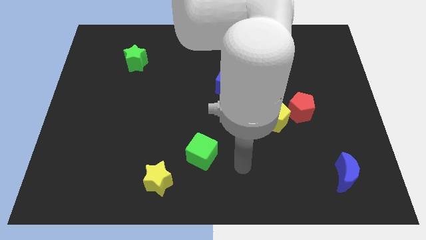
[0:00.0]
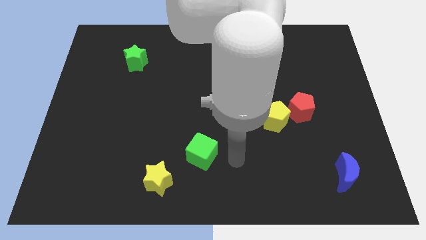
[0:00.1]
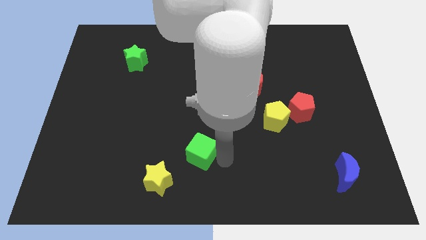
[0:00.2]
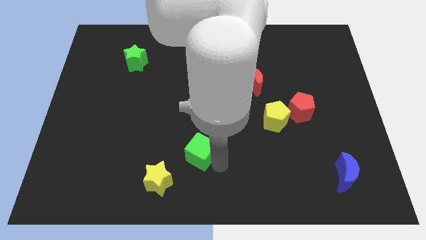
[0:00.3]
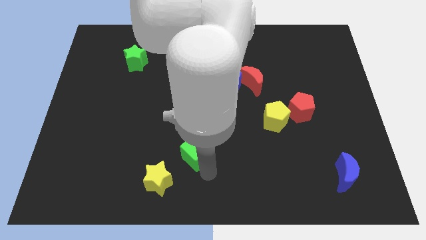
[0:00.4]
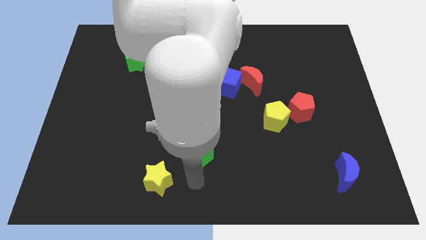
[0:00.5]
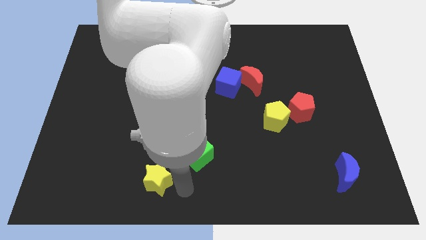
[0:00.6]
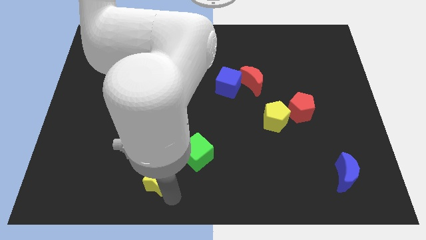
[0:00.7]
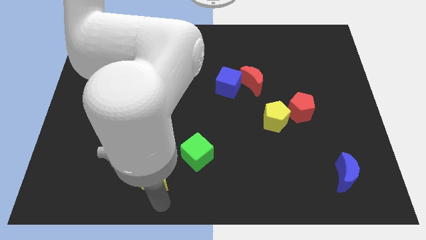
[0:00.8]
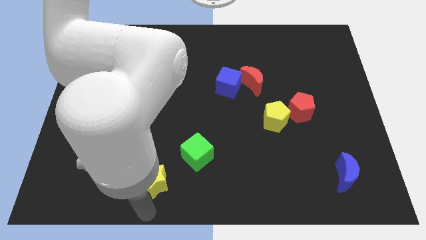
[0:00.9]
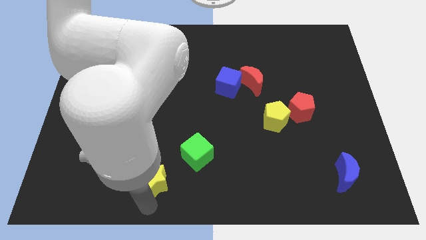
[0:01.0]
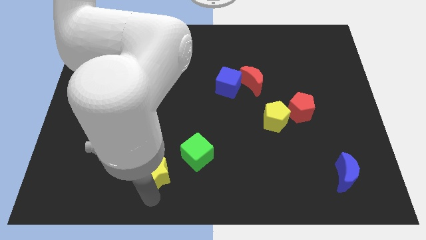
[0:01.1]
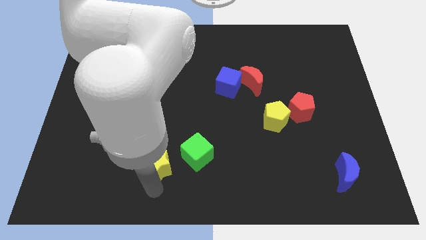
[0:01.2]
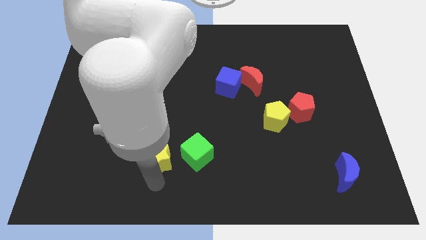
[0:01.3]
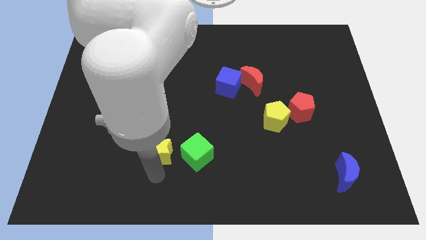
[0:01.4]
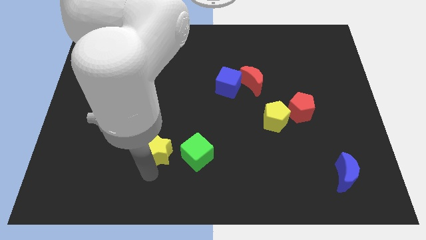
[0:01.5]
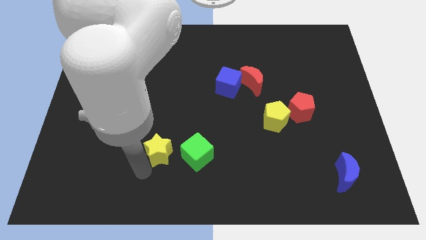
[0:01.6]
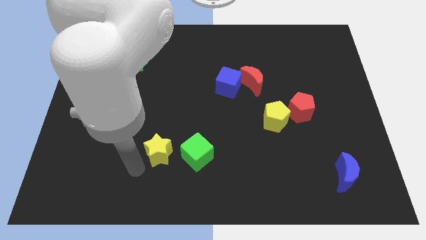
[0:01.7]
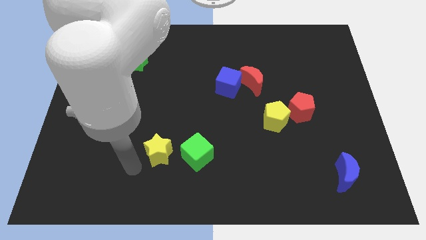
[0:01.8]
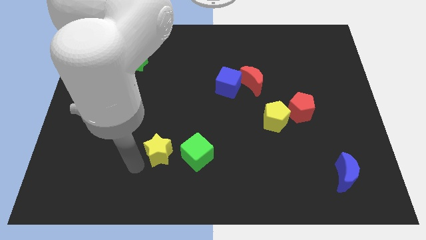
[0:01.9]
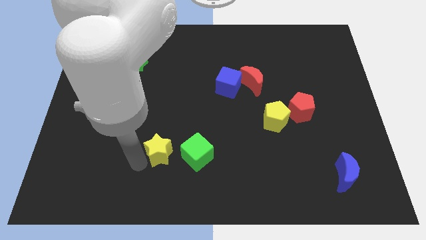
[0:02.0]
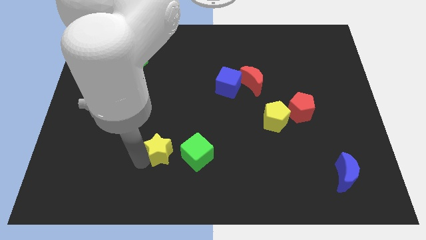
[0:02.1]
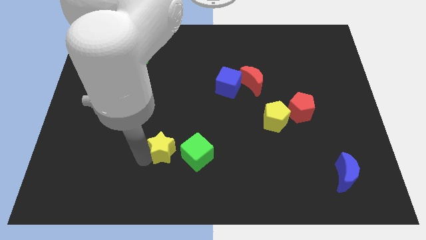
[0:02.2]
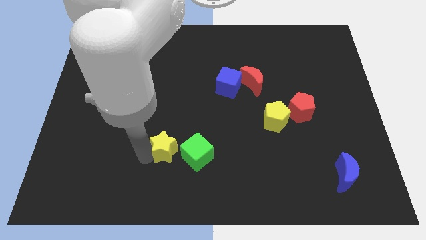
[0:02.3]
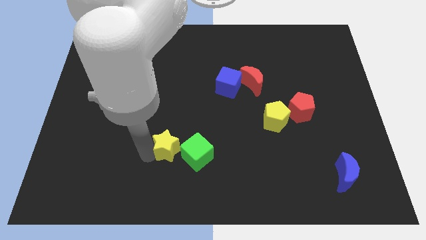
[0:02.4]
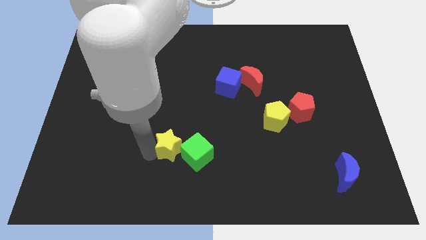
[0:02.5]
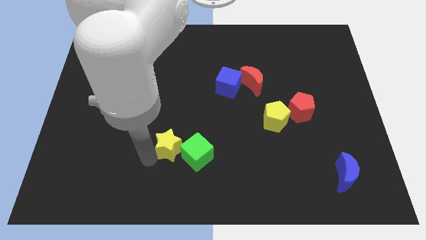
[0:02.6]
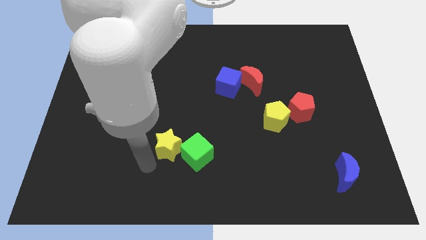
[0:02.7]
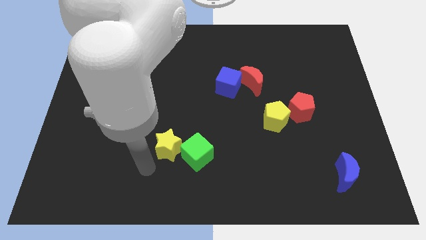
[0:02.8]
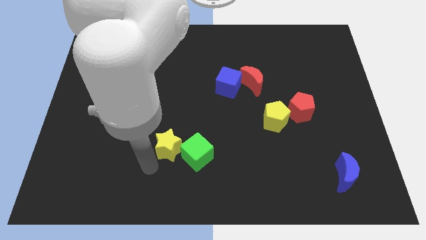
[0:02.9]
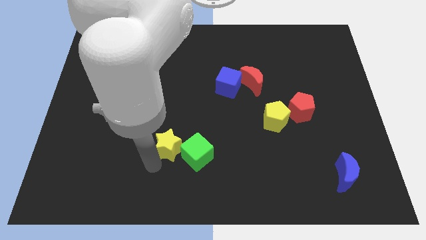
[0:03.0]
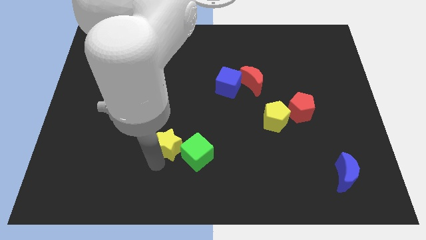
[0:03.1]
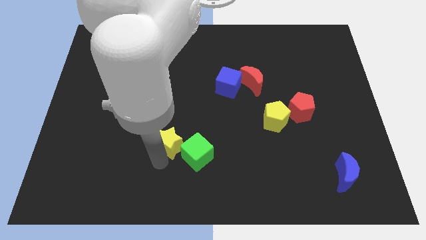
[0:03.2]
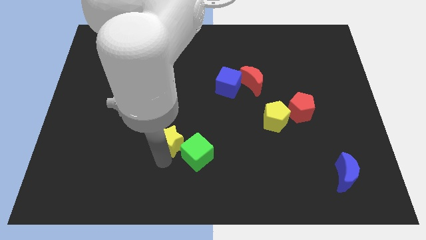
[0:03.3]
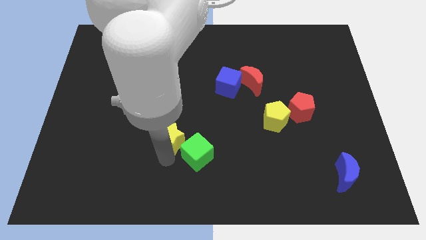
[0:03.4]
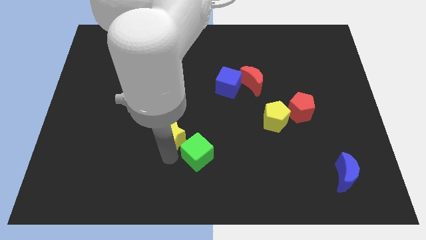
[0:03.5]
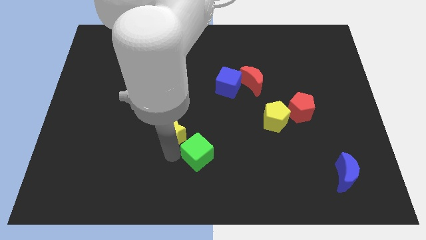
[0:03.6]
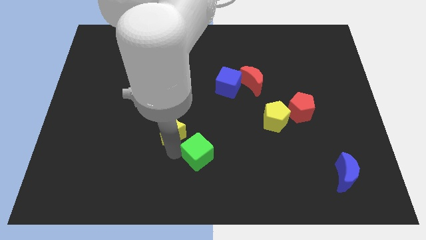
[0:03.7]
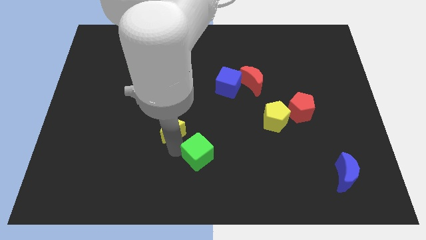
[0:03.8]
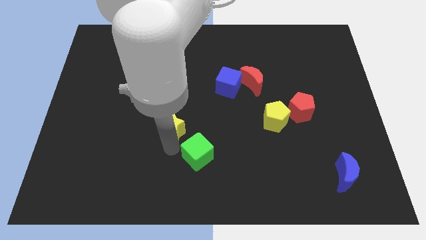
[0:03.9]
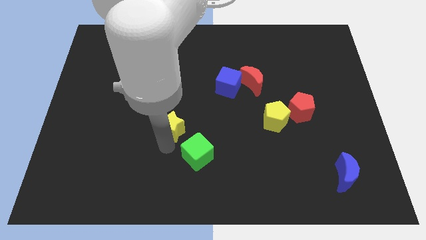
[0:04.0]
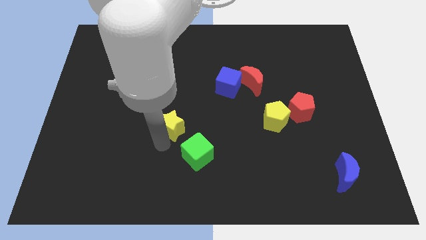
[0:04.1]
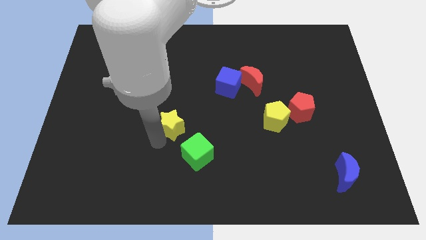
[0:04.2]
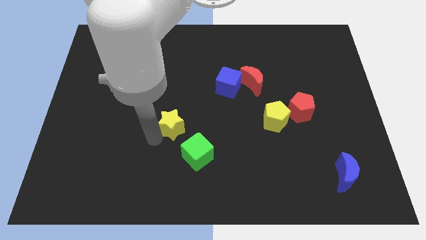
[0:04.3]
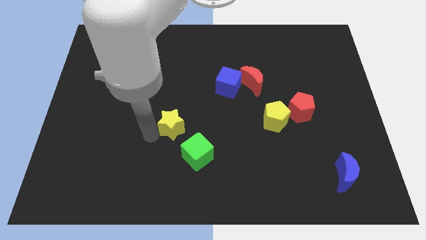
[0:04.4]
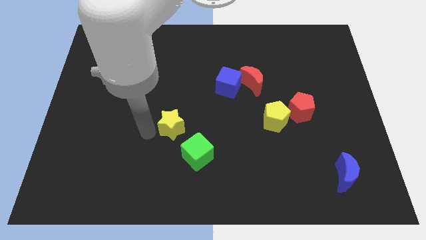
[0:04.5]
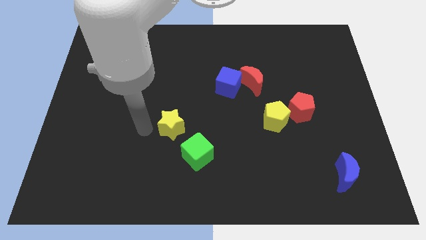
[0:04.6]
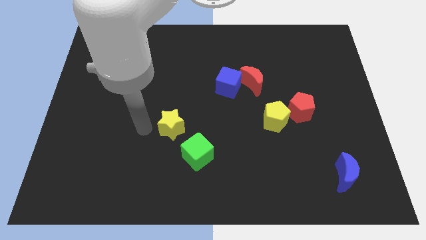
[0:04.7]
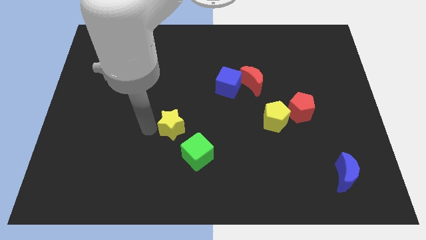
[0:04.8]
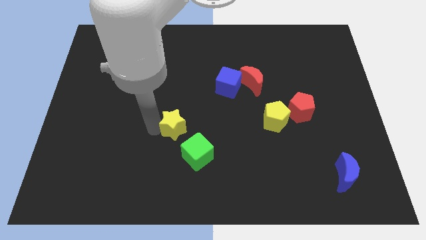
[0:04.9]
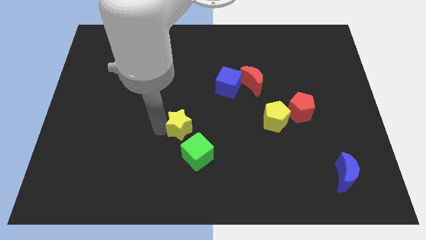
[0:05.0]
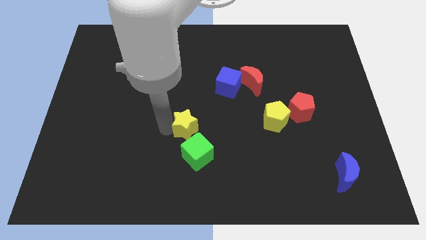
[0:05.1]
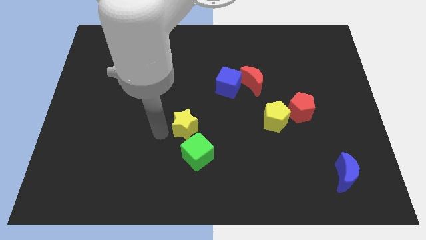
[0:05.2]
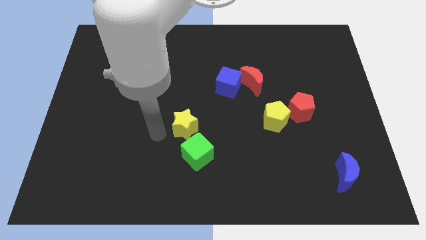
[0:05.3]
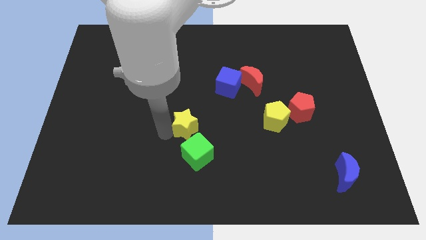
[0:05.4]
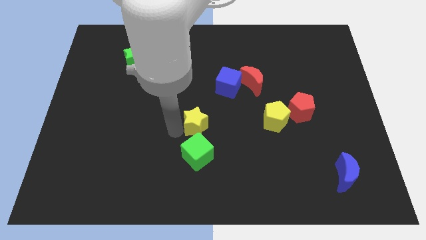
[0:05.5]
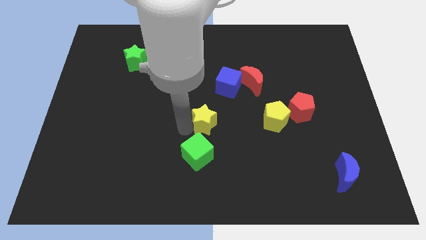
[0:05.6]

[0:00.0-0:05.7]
move the yellow star just left of the yellow pentagon

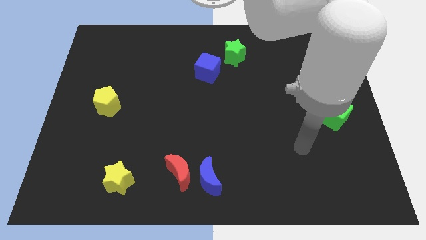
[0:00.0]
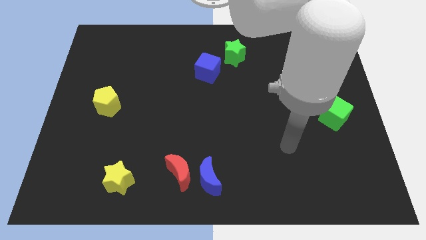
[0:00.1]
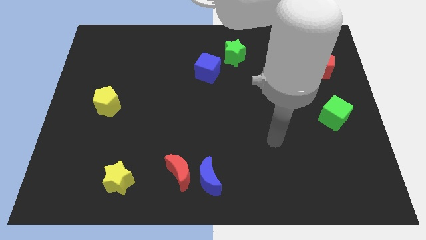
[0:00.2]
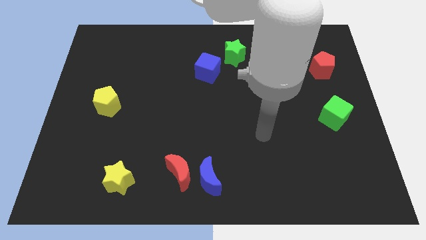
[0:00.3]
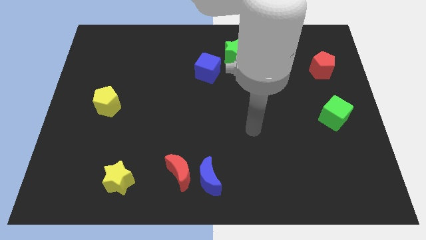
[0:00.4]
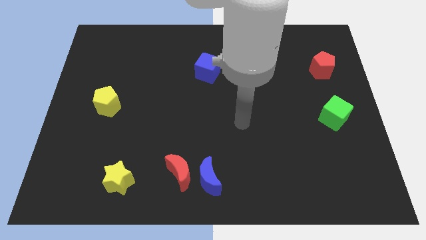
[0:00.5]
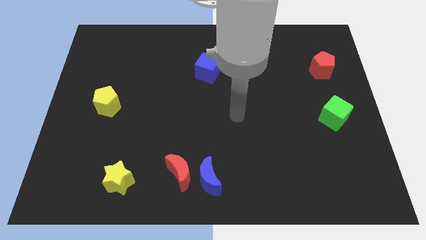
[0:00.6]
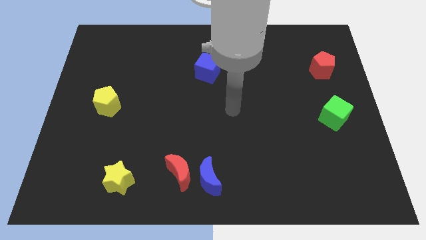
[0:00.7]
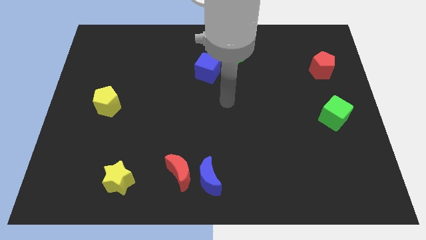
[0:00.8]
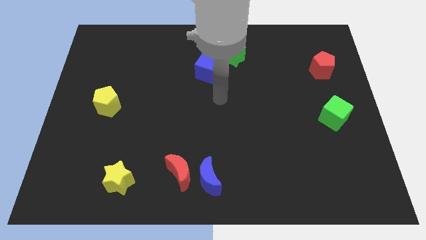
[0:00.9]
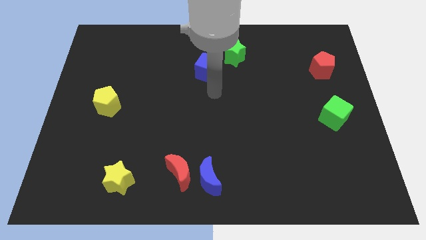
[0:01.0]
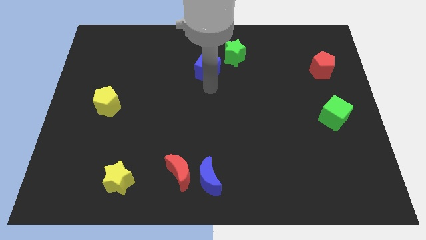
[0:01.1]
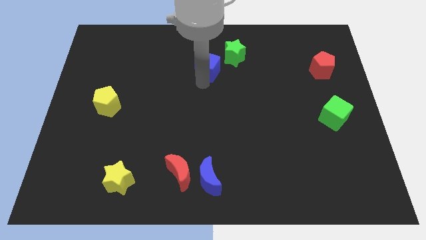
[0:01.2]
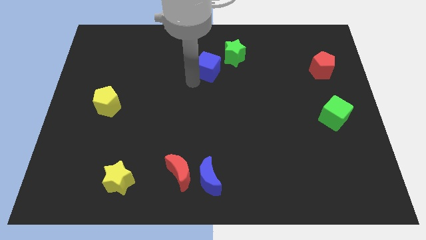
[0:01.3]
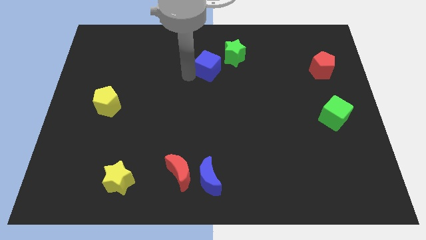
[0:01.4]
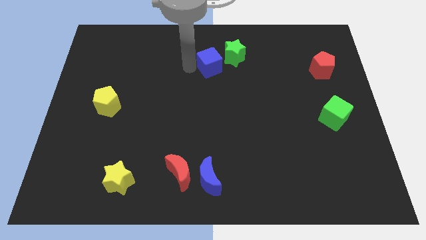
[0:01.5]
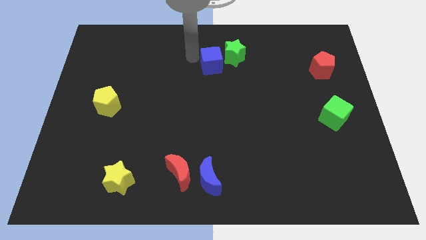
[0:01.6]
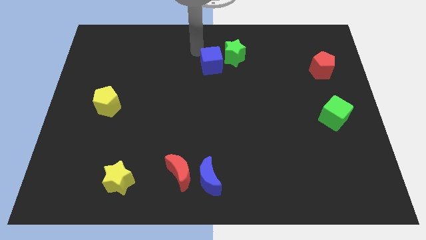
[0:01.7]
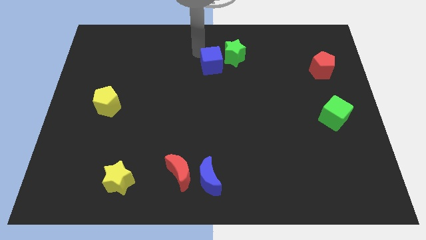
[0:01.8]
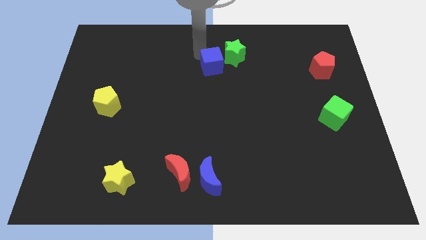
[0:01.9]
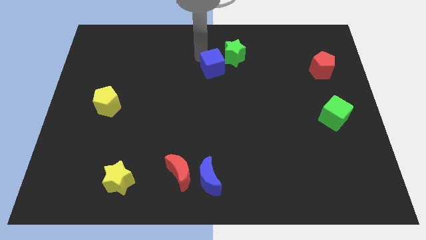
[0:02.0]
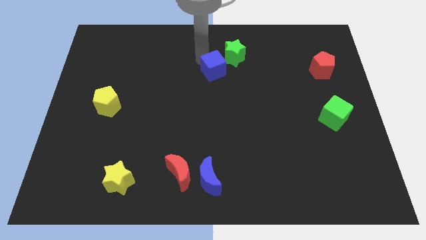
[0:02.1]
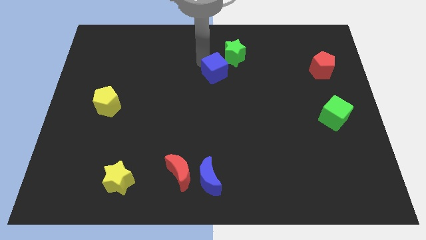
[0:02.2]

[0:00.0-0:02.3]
push the blue cube to the bottom side of the green star
